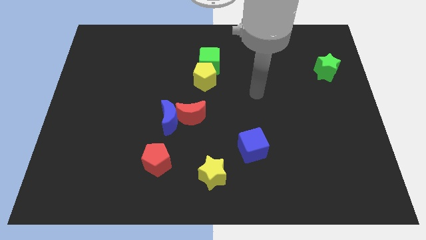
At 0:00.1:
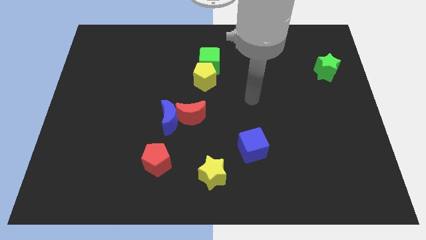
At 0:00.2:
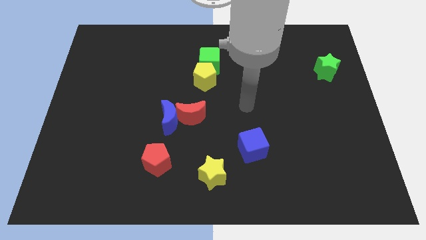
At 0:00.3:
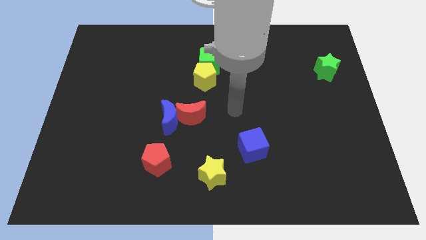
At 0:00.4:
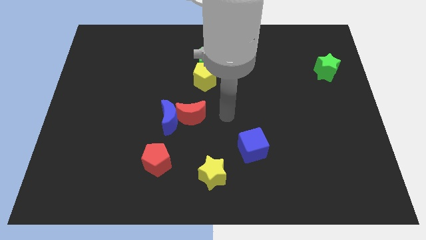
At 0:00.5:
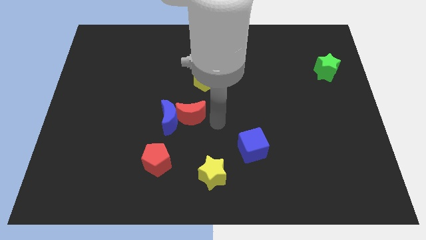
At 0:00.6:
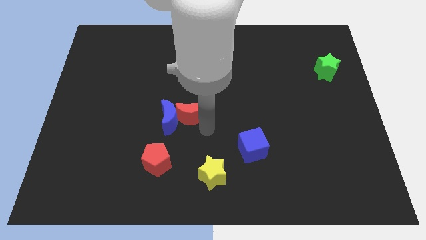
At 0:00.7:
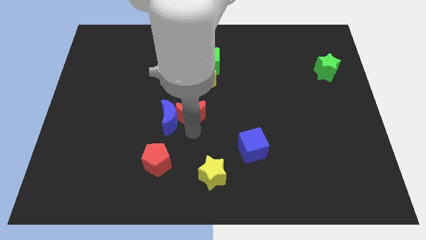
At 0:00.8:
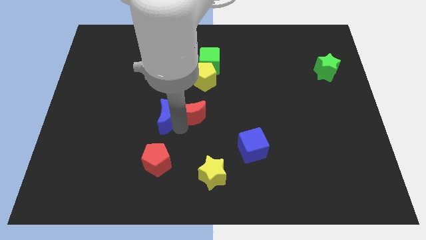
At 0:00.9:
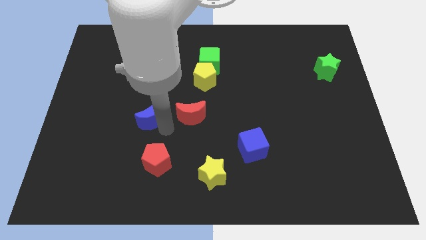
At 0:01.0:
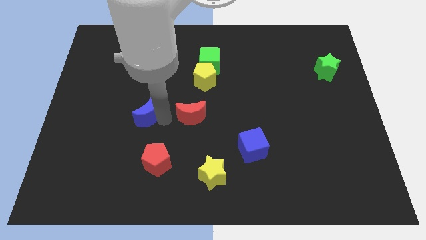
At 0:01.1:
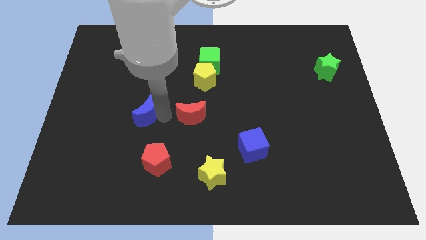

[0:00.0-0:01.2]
move the red moon away from the blue moon

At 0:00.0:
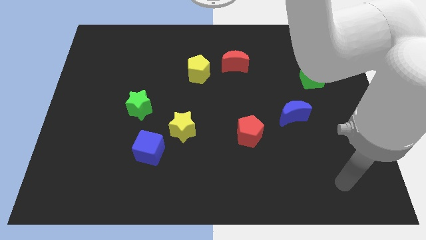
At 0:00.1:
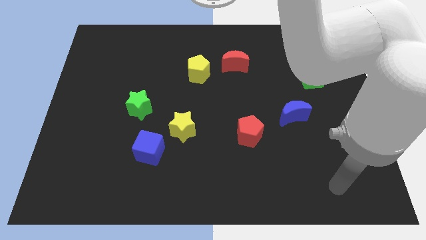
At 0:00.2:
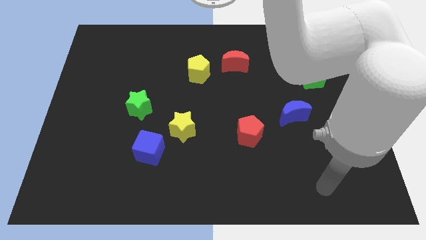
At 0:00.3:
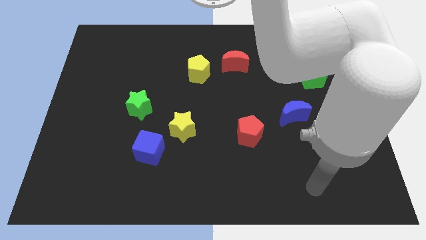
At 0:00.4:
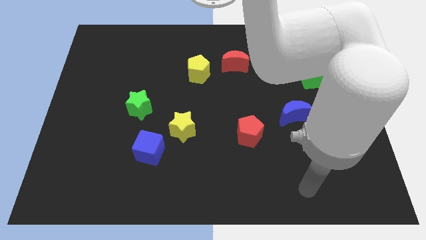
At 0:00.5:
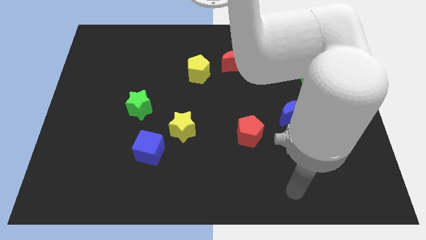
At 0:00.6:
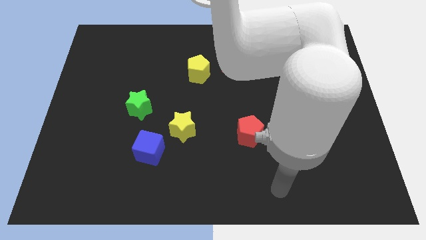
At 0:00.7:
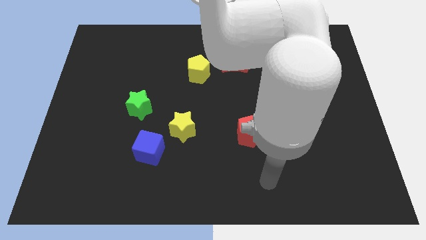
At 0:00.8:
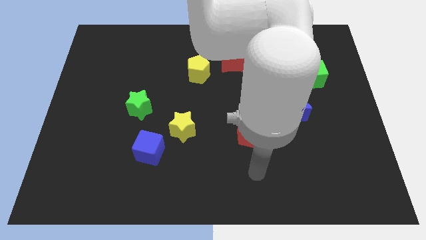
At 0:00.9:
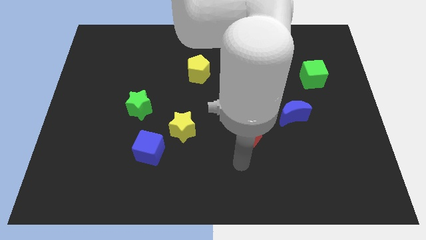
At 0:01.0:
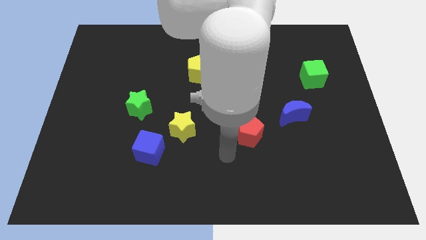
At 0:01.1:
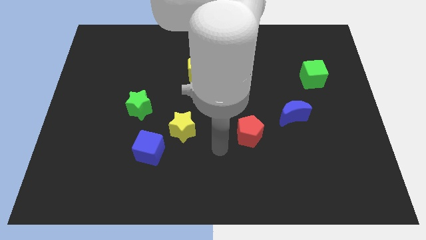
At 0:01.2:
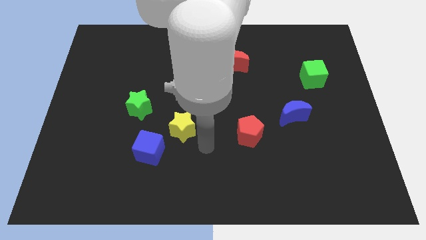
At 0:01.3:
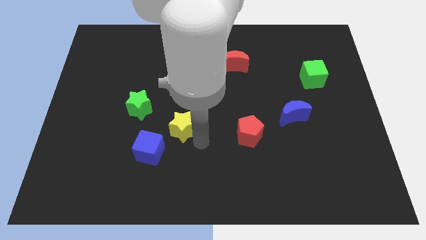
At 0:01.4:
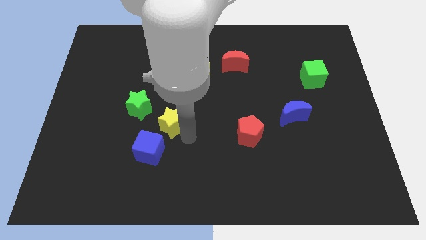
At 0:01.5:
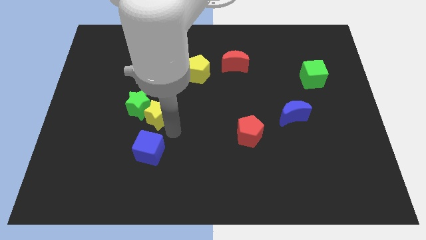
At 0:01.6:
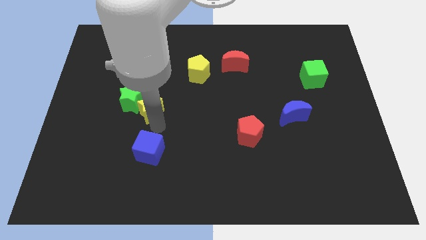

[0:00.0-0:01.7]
separate the blue cube from the yellow star

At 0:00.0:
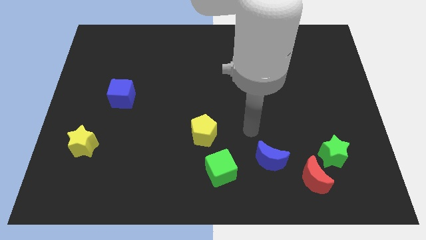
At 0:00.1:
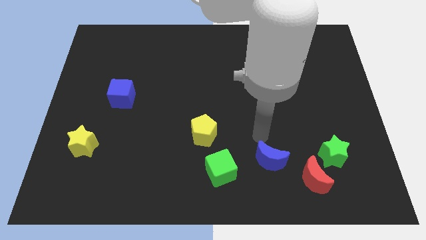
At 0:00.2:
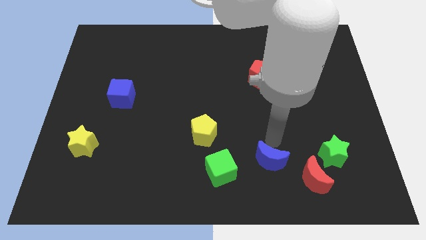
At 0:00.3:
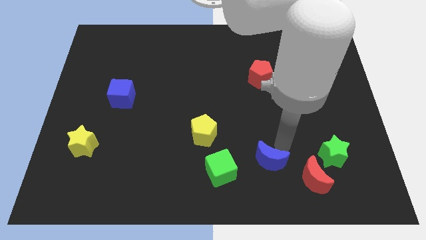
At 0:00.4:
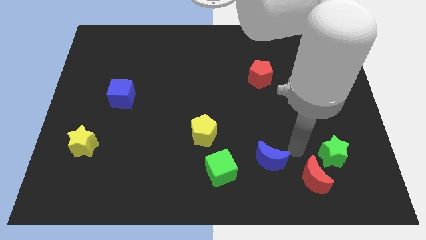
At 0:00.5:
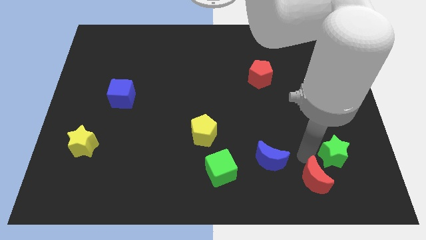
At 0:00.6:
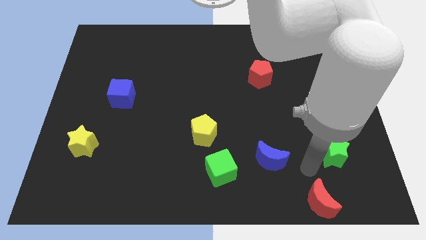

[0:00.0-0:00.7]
move the green star away from the red moon

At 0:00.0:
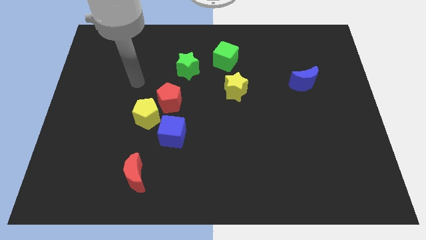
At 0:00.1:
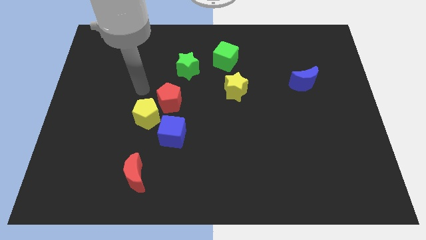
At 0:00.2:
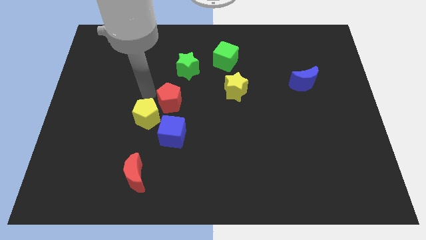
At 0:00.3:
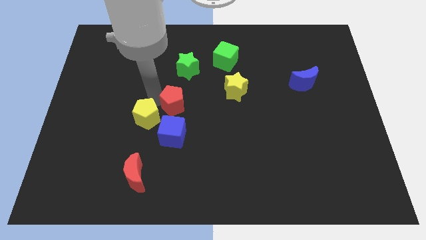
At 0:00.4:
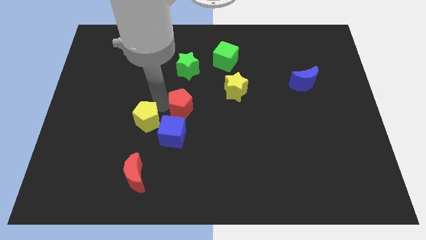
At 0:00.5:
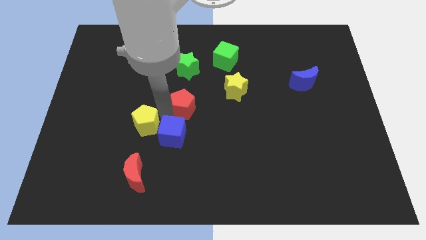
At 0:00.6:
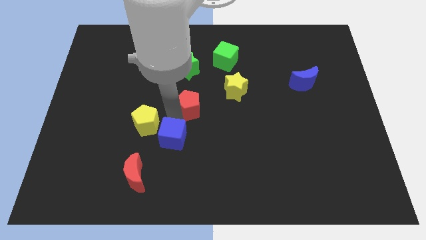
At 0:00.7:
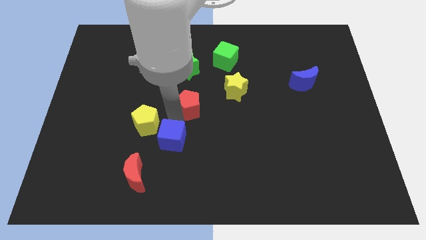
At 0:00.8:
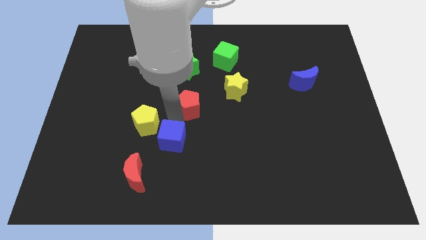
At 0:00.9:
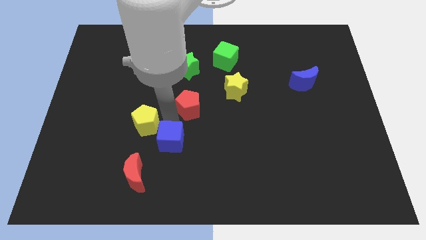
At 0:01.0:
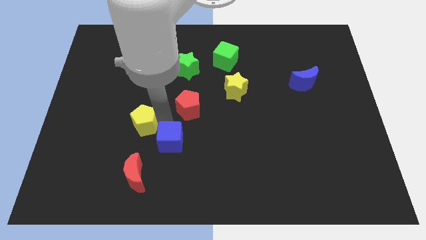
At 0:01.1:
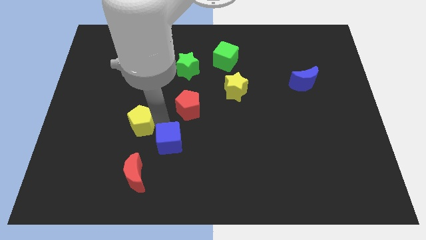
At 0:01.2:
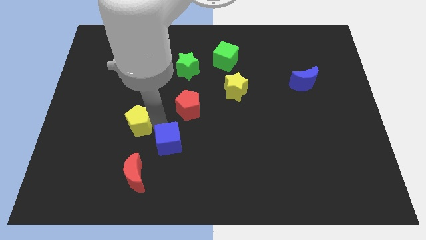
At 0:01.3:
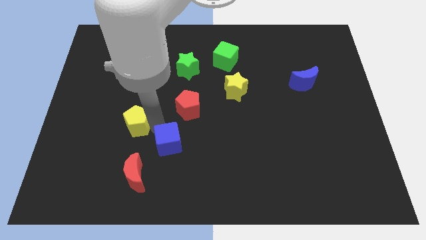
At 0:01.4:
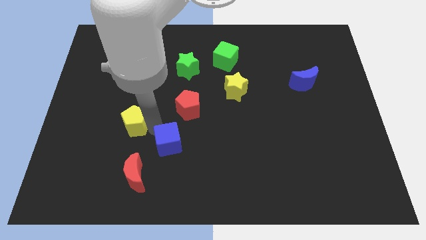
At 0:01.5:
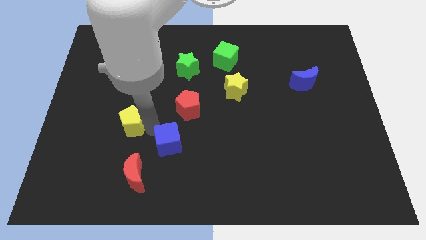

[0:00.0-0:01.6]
pull the yellow pentagon apart from the red pentagon and blue cube

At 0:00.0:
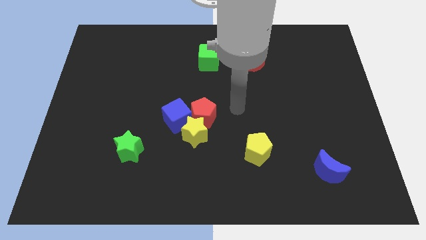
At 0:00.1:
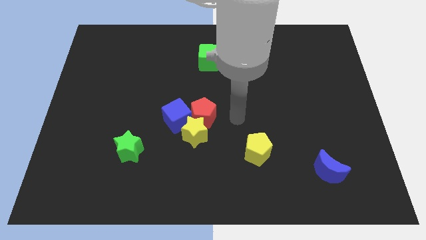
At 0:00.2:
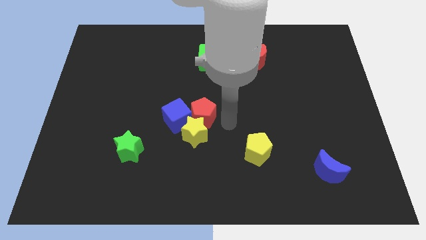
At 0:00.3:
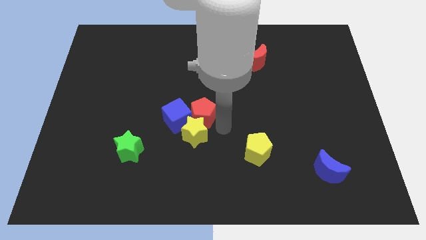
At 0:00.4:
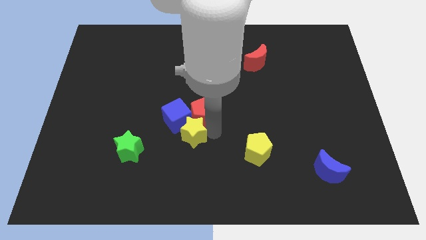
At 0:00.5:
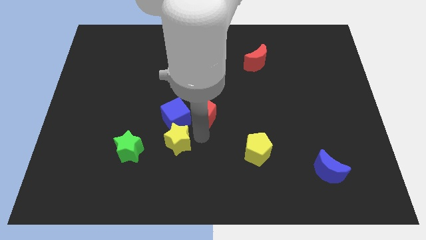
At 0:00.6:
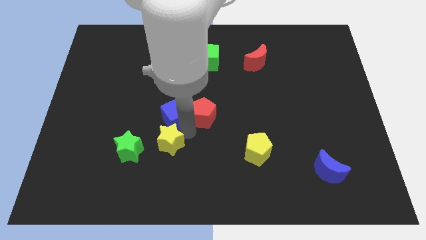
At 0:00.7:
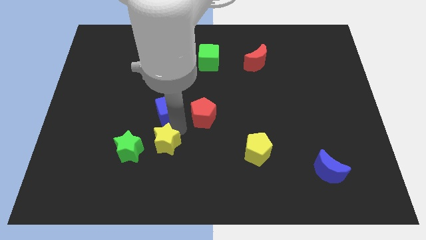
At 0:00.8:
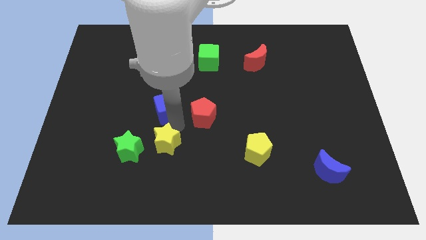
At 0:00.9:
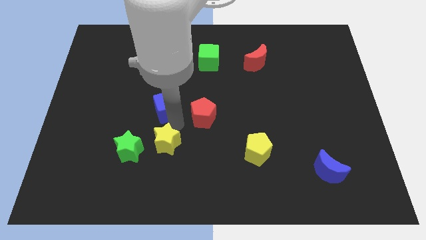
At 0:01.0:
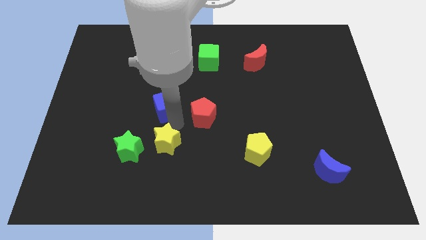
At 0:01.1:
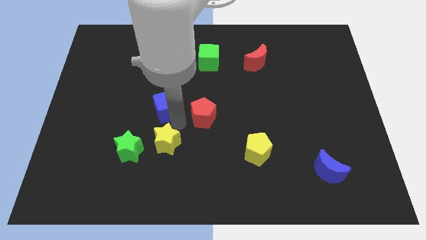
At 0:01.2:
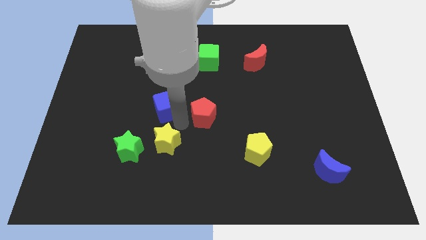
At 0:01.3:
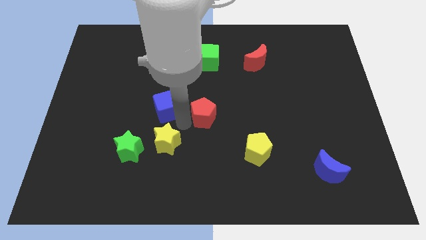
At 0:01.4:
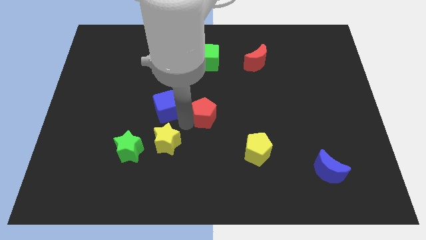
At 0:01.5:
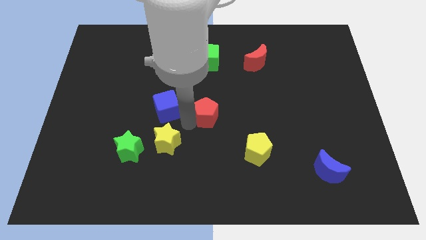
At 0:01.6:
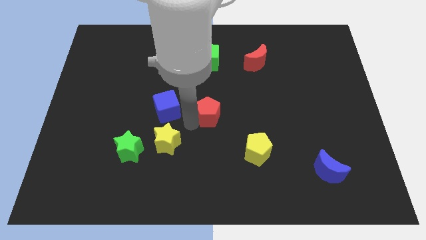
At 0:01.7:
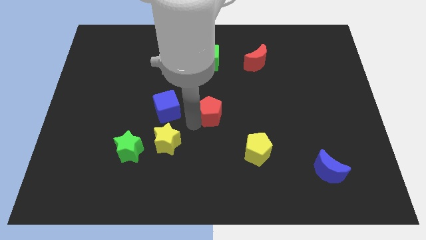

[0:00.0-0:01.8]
separate the red pentagon from the yellow star and blue cube

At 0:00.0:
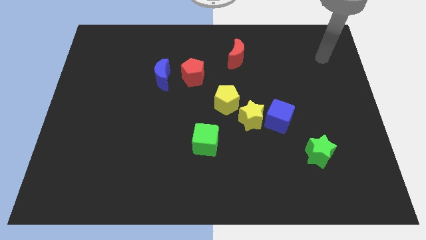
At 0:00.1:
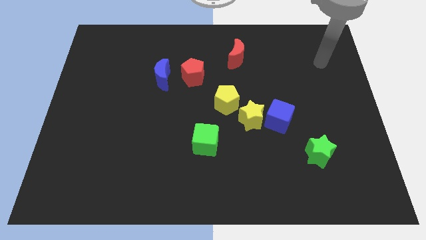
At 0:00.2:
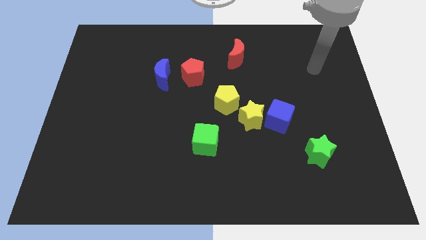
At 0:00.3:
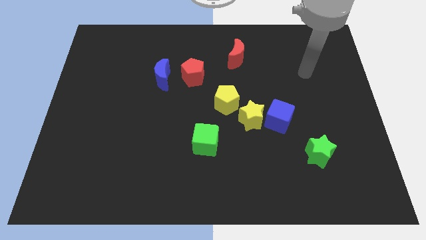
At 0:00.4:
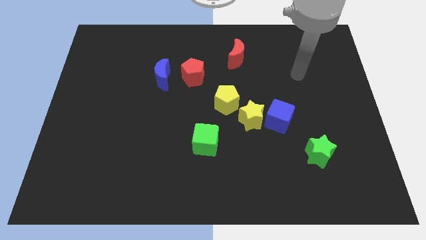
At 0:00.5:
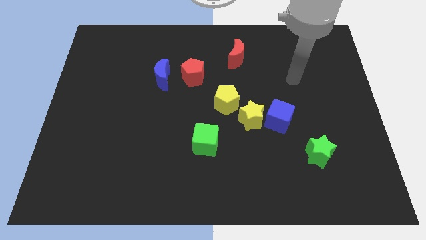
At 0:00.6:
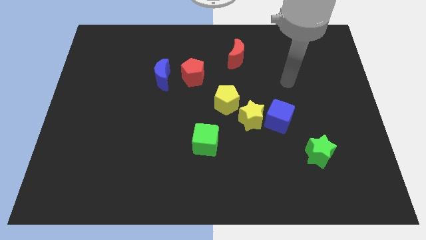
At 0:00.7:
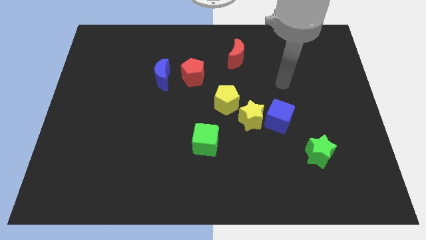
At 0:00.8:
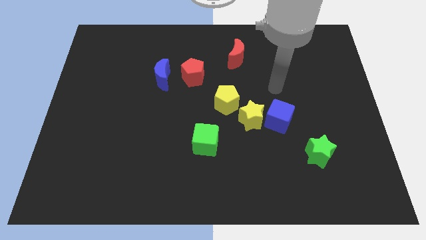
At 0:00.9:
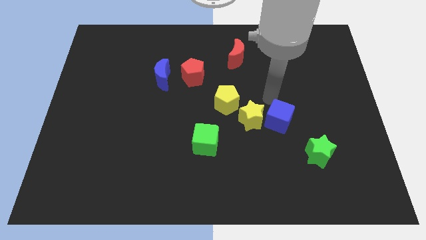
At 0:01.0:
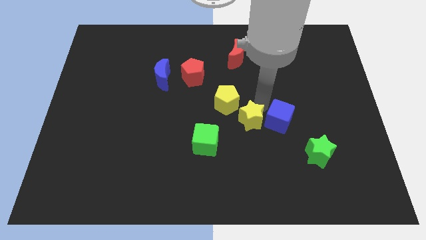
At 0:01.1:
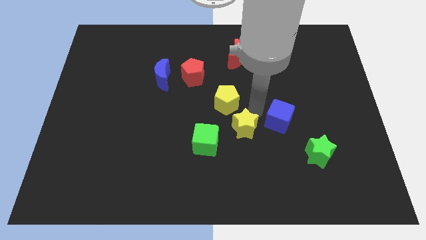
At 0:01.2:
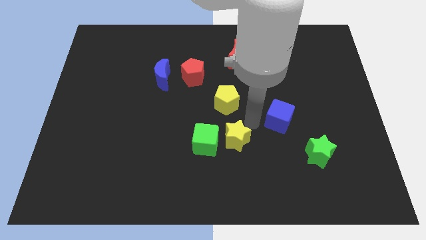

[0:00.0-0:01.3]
move the blue cube away from the yellow star

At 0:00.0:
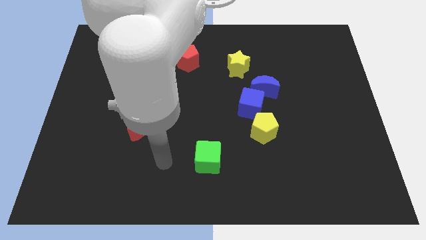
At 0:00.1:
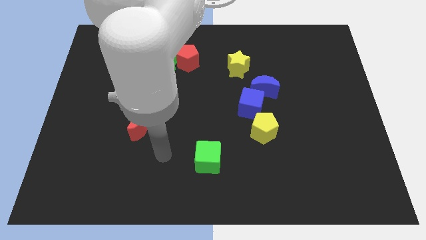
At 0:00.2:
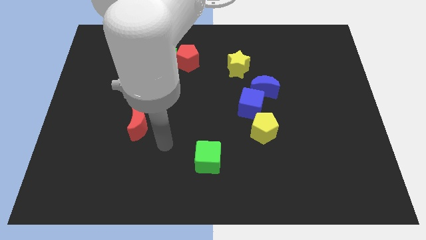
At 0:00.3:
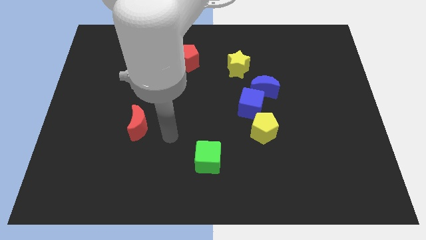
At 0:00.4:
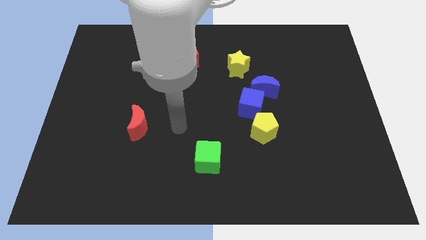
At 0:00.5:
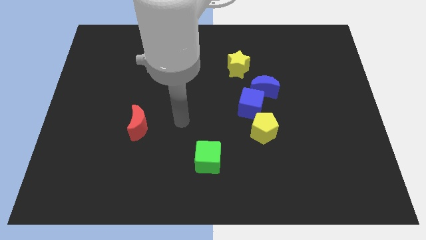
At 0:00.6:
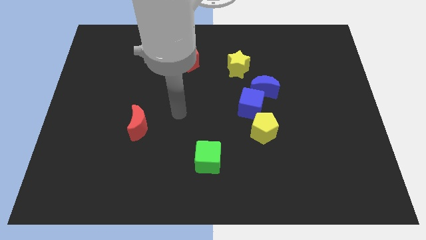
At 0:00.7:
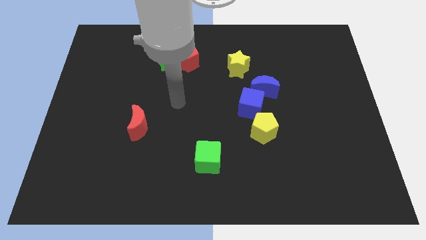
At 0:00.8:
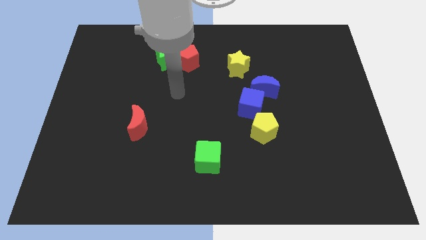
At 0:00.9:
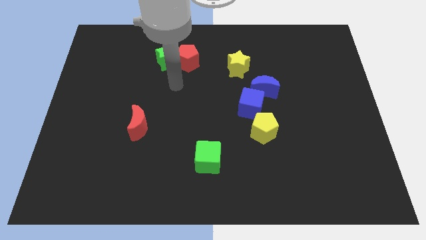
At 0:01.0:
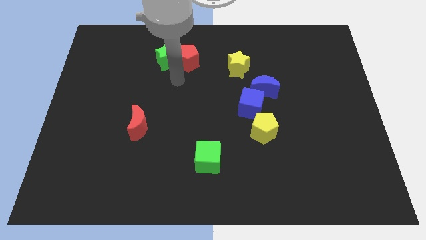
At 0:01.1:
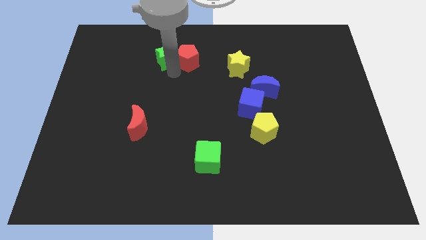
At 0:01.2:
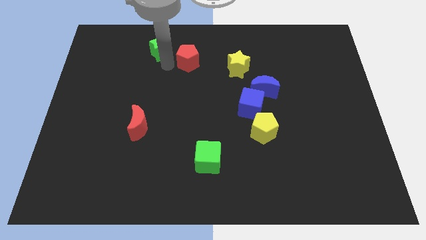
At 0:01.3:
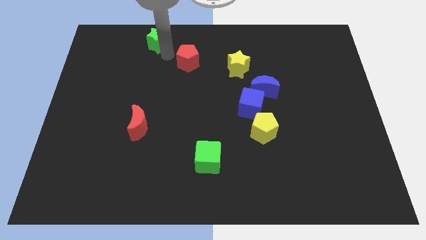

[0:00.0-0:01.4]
move the red pentagon away from the green star
